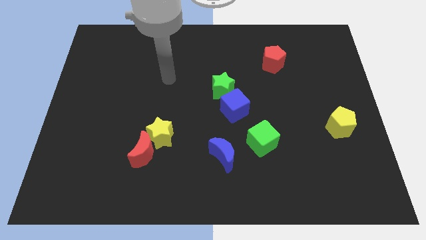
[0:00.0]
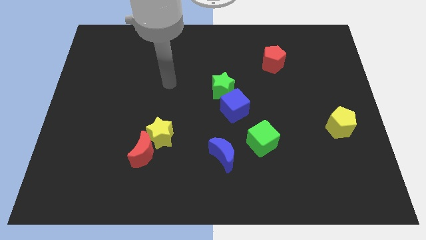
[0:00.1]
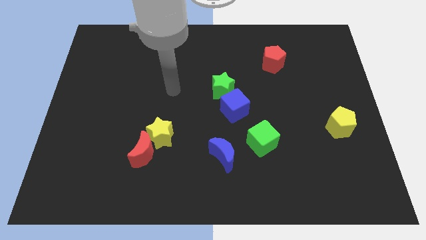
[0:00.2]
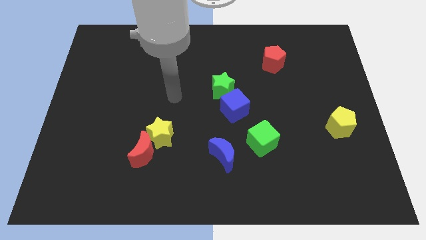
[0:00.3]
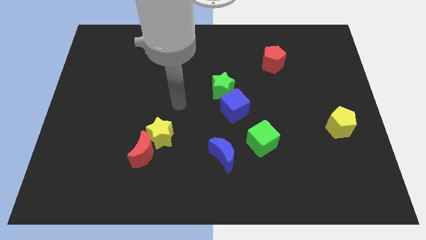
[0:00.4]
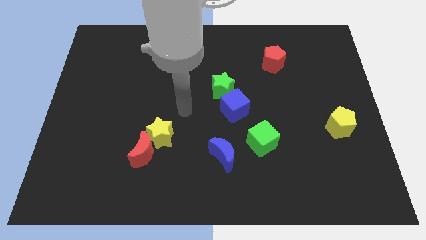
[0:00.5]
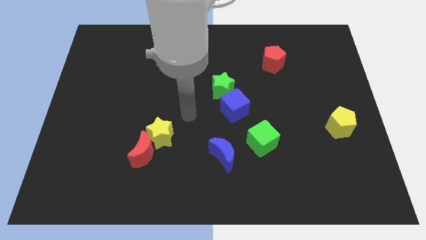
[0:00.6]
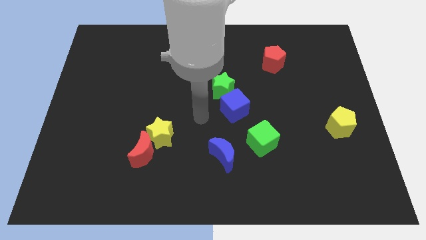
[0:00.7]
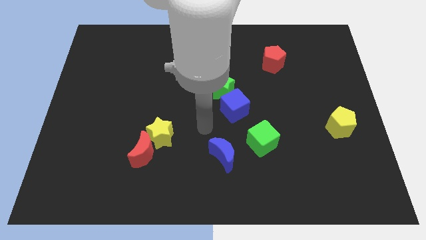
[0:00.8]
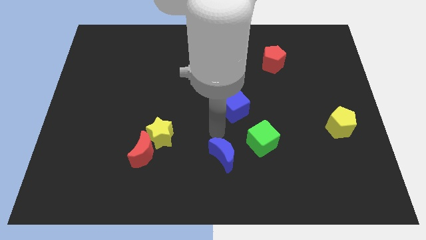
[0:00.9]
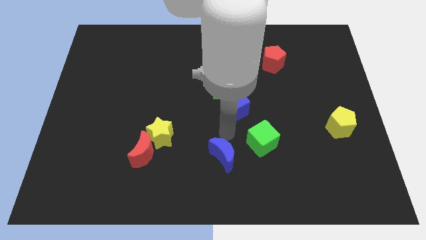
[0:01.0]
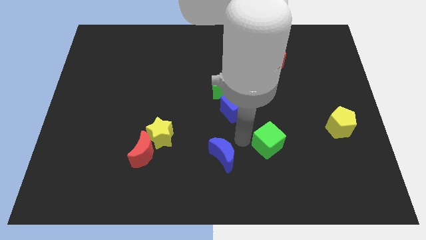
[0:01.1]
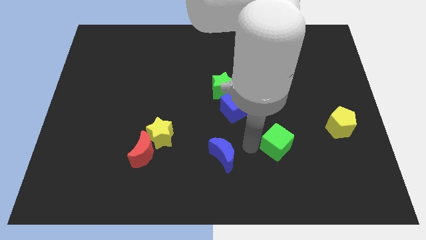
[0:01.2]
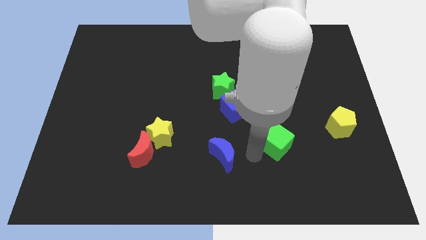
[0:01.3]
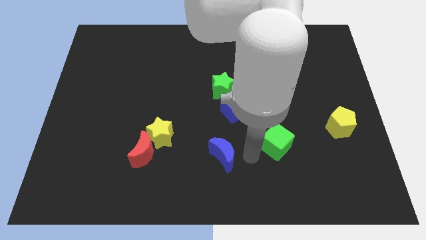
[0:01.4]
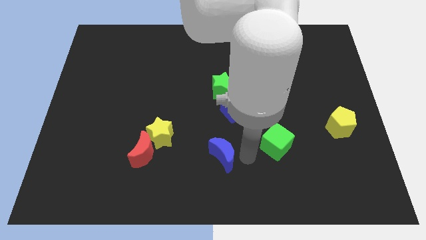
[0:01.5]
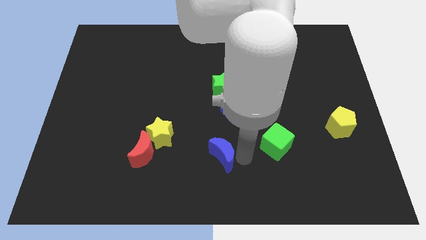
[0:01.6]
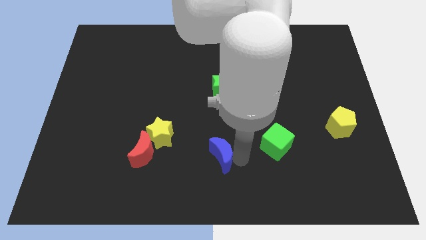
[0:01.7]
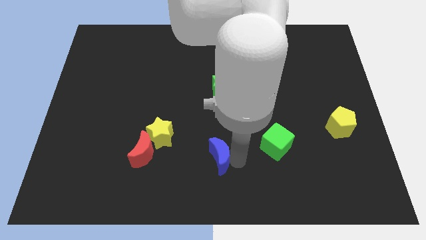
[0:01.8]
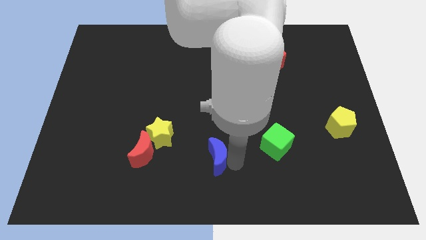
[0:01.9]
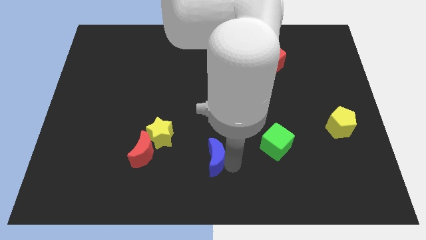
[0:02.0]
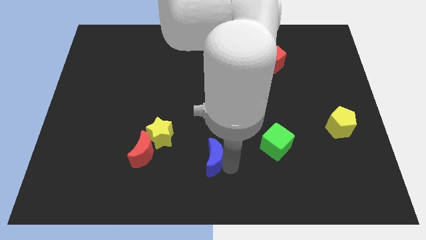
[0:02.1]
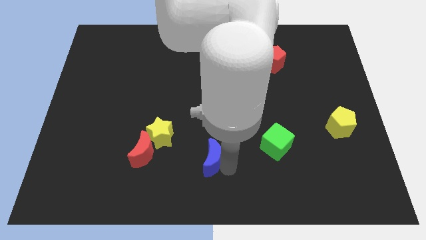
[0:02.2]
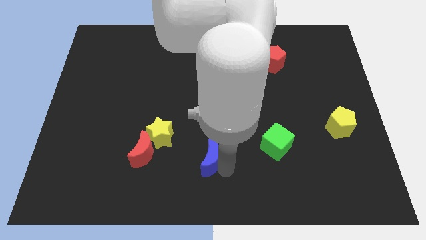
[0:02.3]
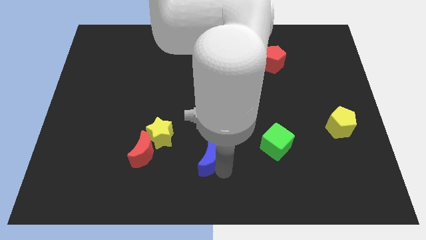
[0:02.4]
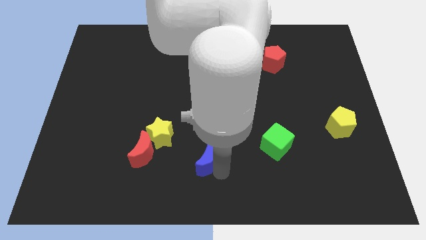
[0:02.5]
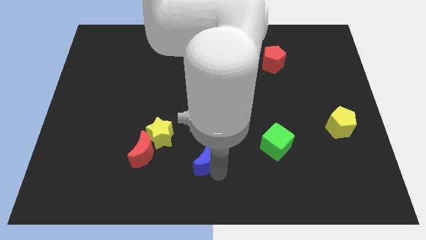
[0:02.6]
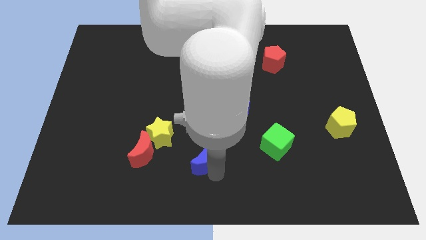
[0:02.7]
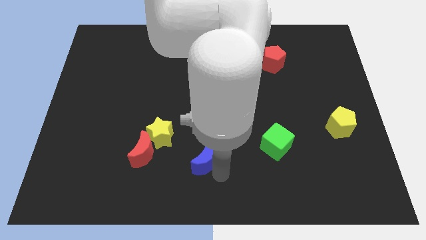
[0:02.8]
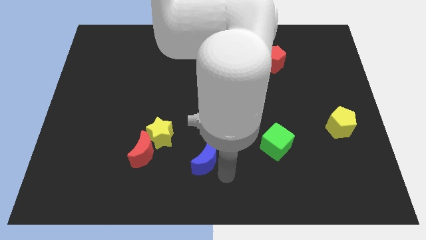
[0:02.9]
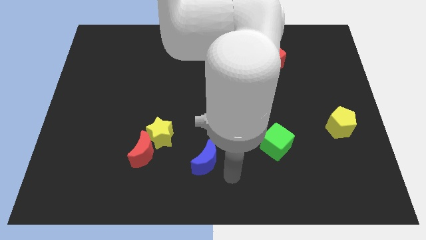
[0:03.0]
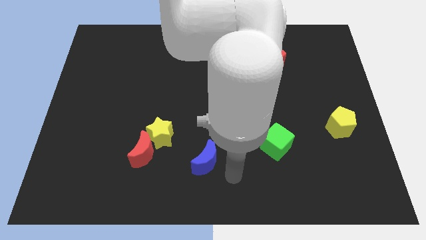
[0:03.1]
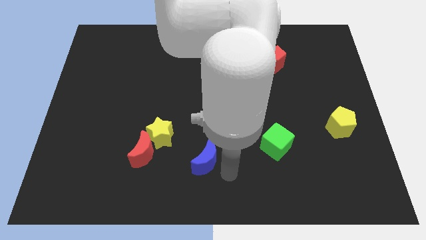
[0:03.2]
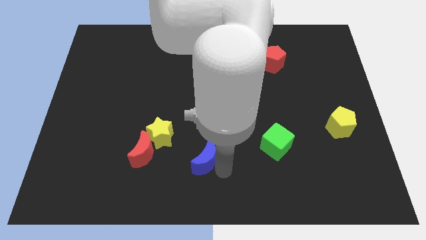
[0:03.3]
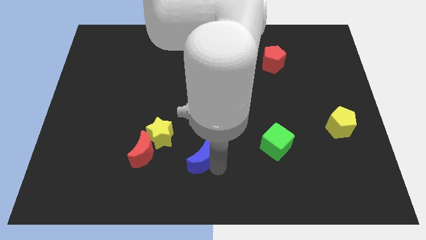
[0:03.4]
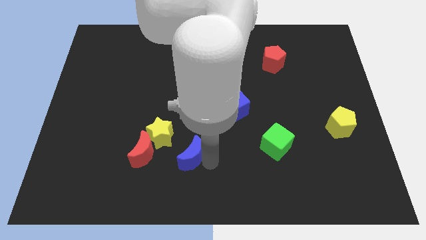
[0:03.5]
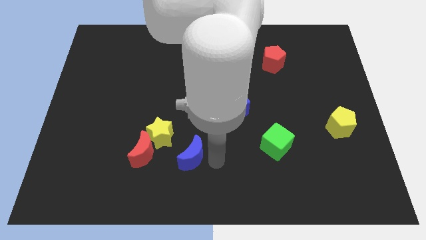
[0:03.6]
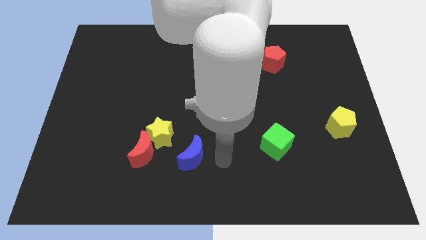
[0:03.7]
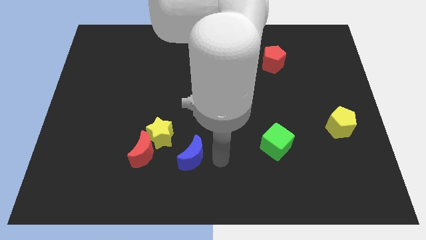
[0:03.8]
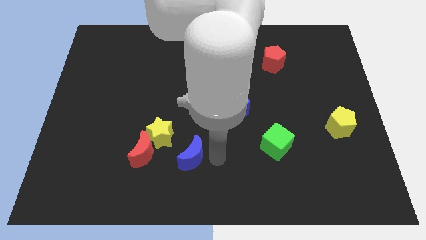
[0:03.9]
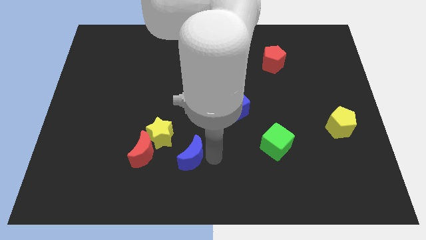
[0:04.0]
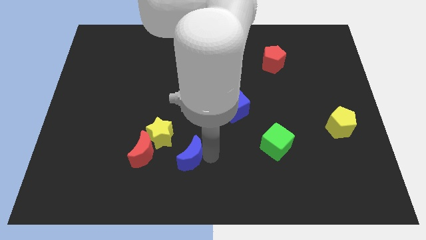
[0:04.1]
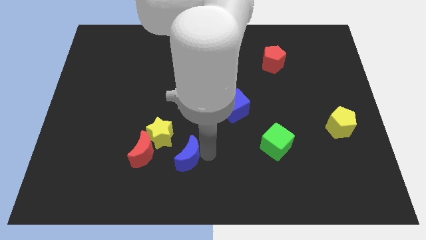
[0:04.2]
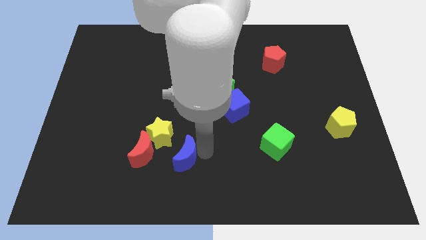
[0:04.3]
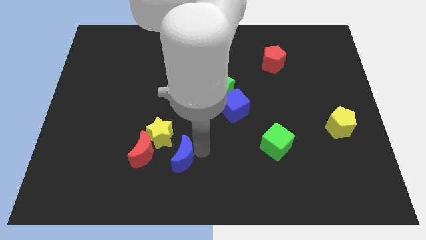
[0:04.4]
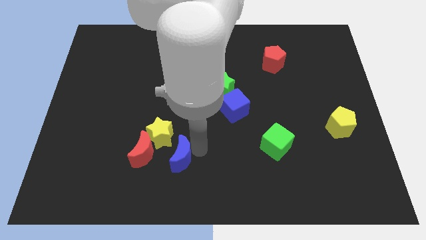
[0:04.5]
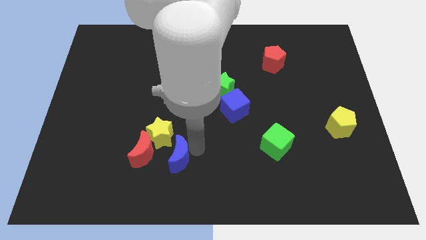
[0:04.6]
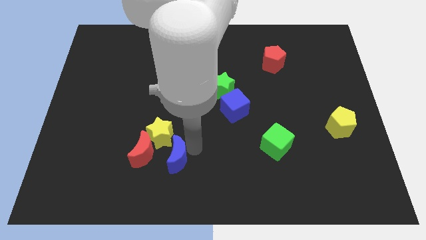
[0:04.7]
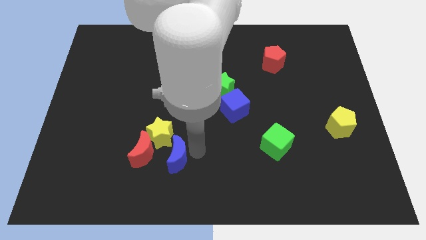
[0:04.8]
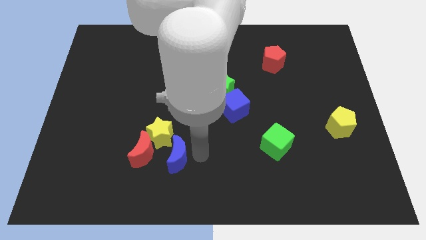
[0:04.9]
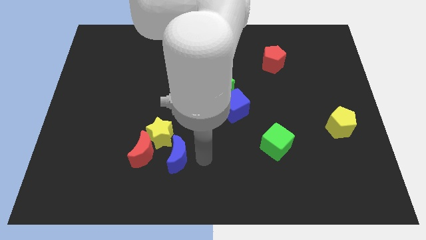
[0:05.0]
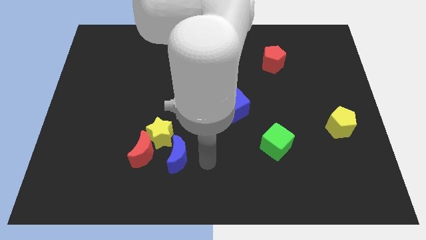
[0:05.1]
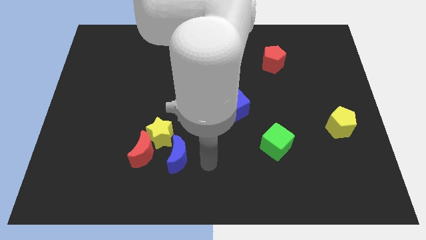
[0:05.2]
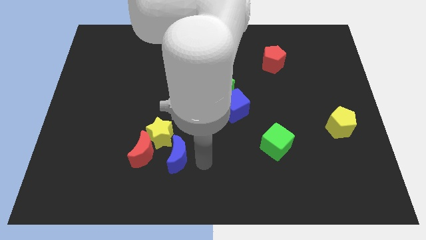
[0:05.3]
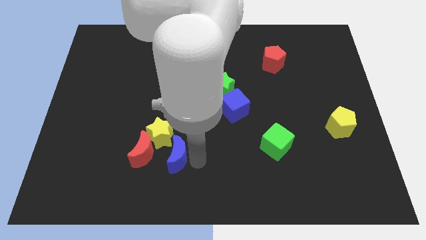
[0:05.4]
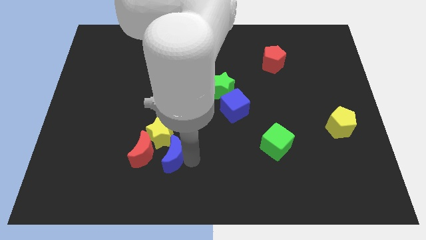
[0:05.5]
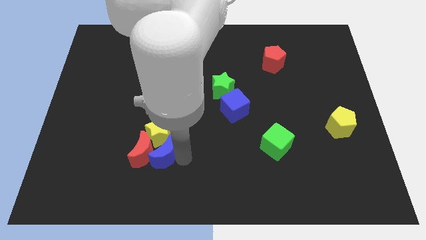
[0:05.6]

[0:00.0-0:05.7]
move the blue moon next to the red moon

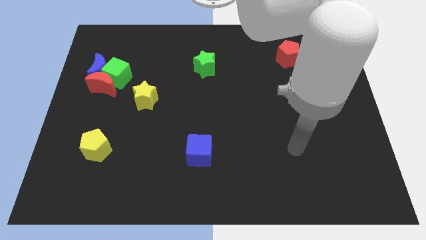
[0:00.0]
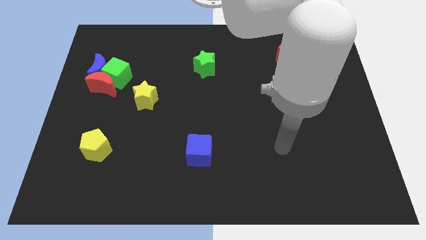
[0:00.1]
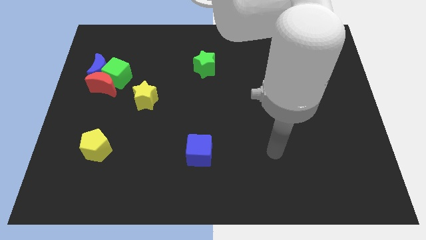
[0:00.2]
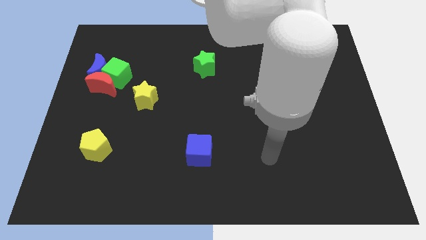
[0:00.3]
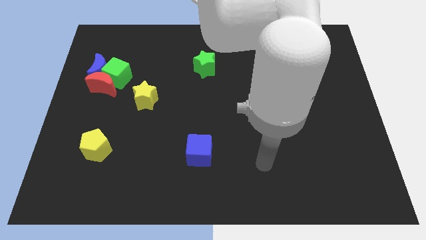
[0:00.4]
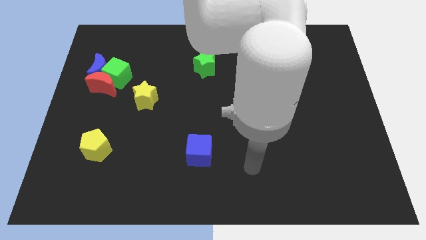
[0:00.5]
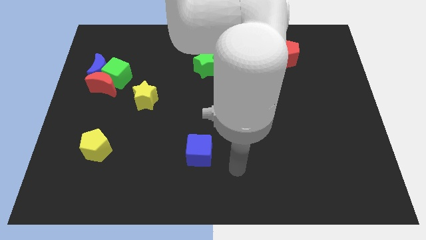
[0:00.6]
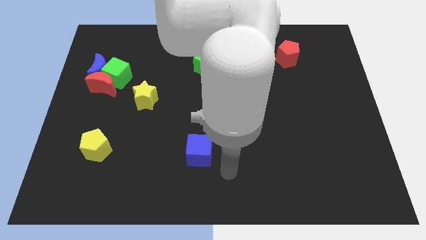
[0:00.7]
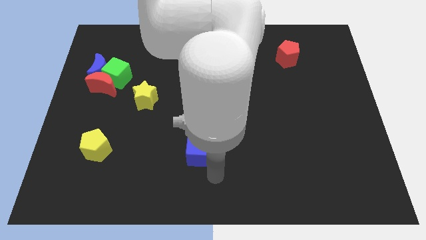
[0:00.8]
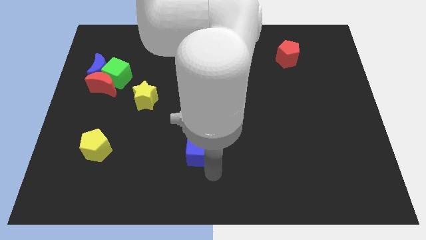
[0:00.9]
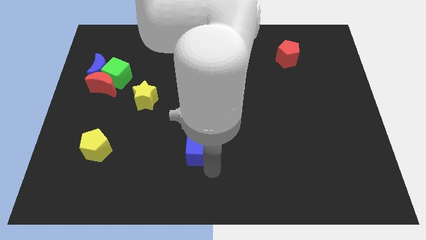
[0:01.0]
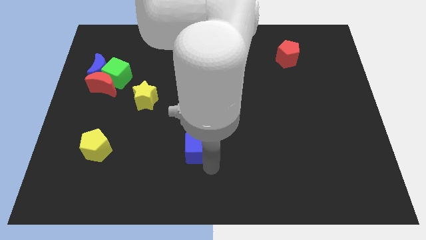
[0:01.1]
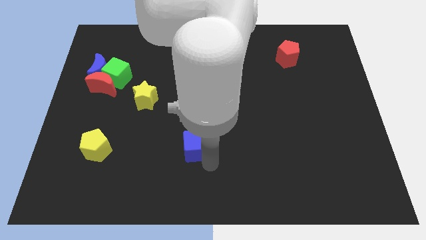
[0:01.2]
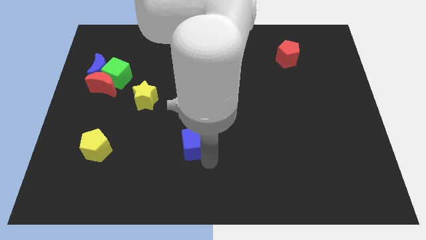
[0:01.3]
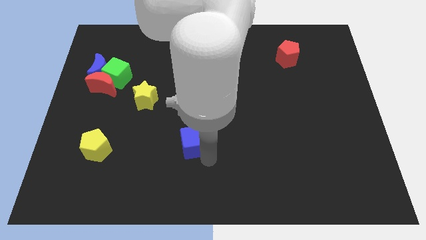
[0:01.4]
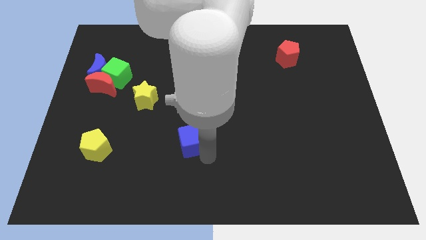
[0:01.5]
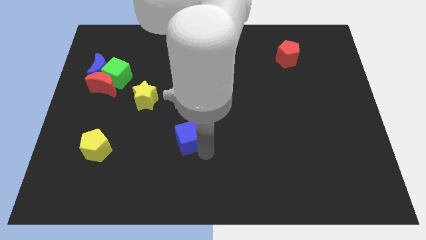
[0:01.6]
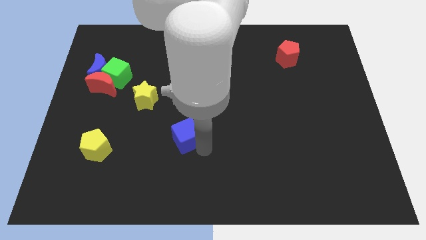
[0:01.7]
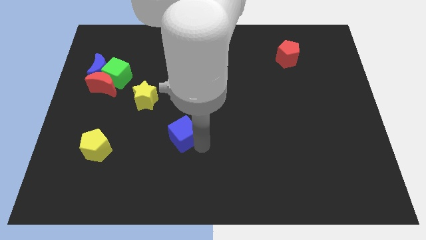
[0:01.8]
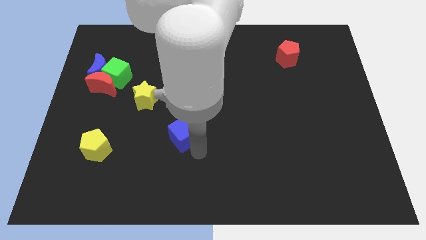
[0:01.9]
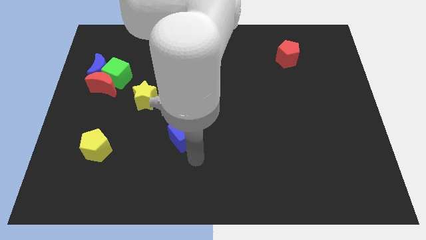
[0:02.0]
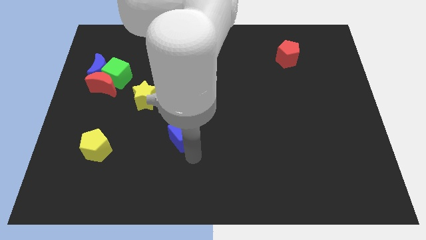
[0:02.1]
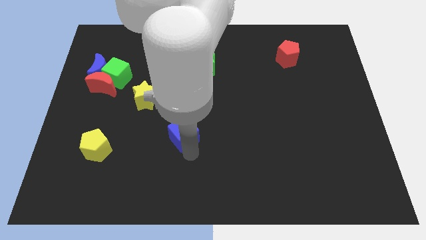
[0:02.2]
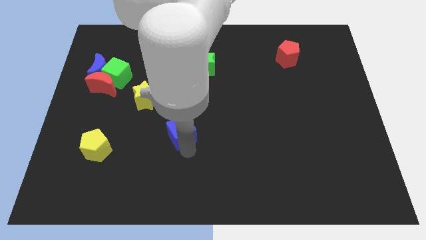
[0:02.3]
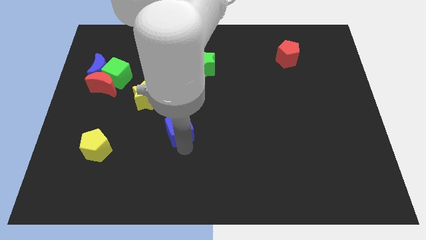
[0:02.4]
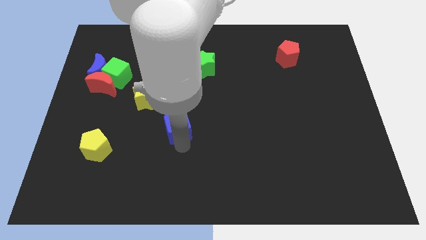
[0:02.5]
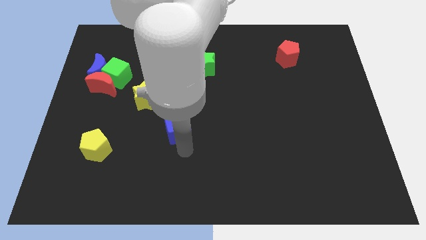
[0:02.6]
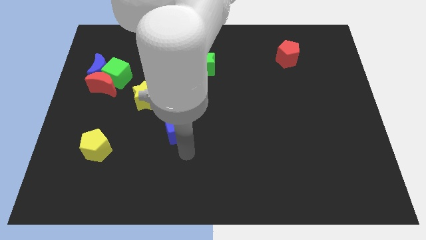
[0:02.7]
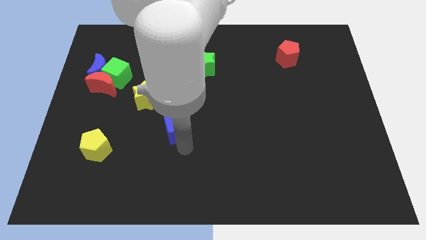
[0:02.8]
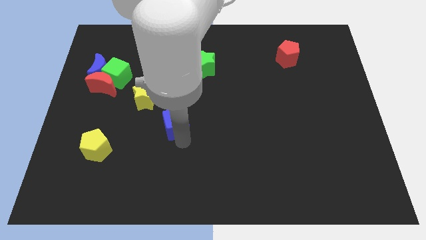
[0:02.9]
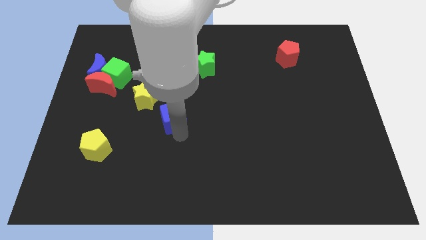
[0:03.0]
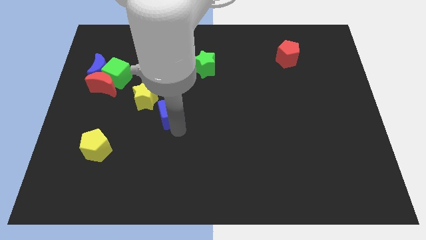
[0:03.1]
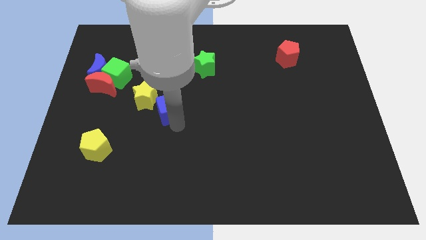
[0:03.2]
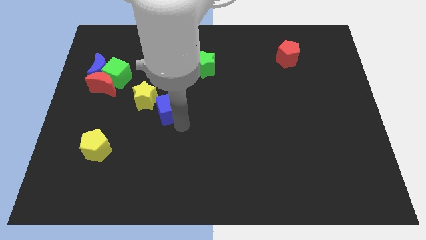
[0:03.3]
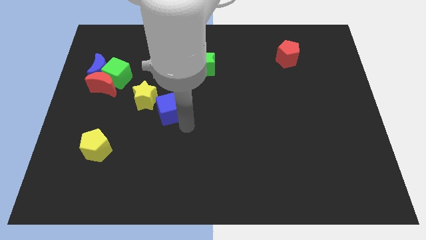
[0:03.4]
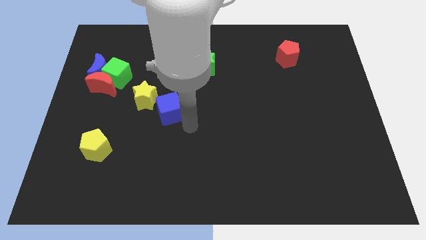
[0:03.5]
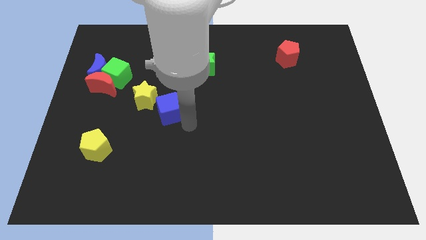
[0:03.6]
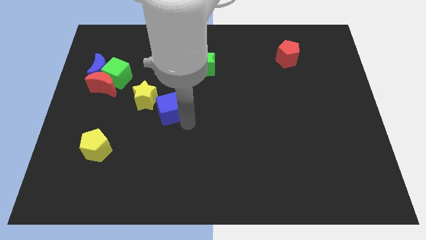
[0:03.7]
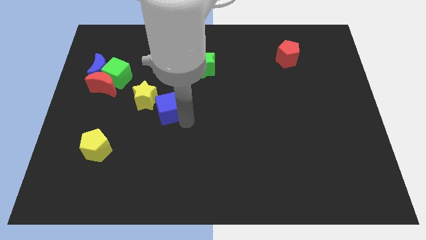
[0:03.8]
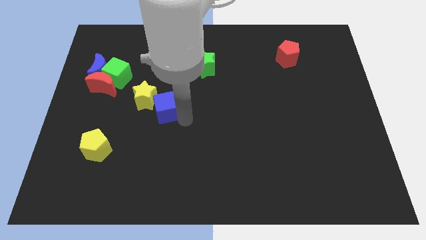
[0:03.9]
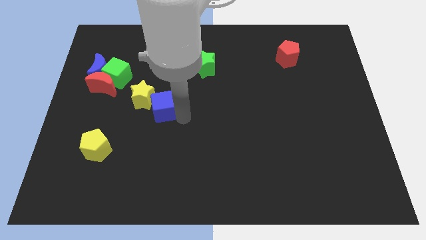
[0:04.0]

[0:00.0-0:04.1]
move the blue cube towards the yellow star
